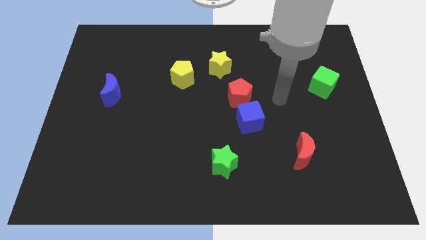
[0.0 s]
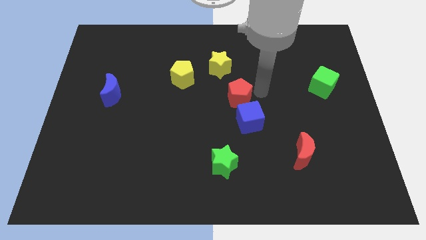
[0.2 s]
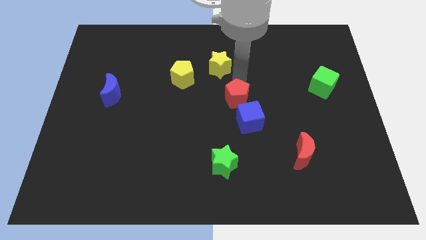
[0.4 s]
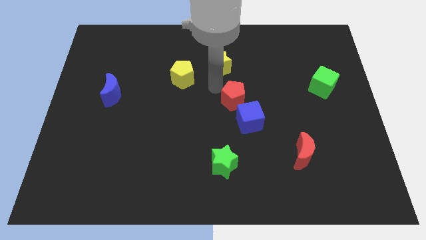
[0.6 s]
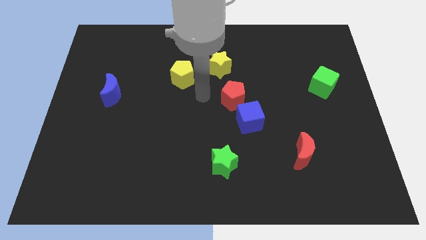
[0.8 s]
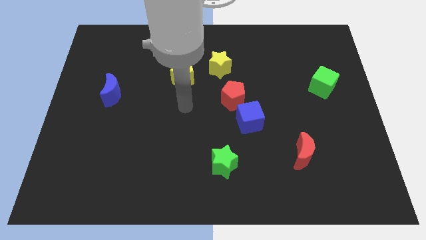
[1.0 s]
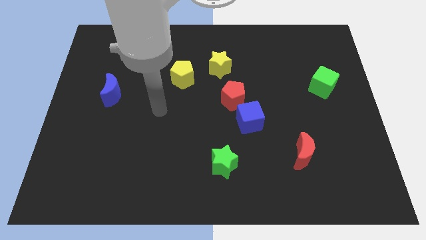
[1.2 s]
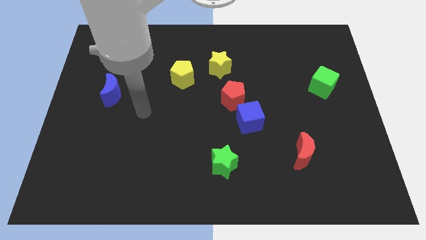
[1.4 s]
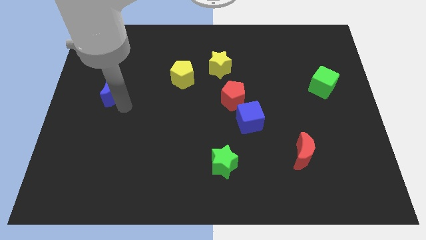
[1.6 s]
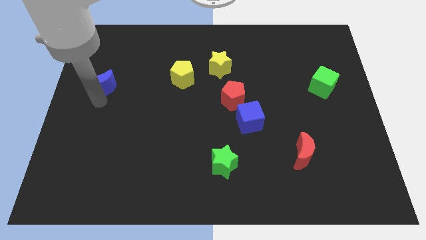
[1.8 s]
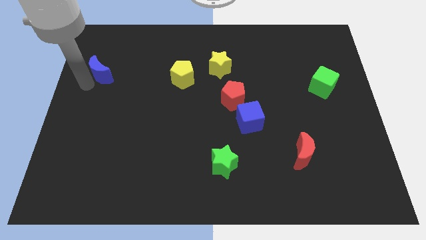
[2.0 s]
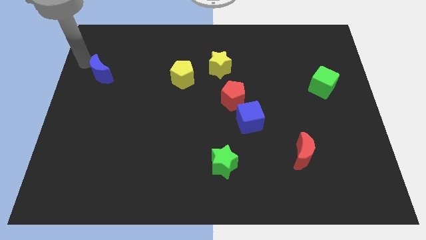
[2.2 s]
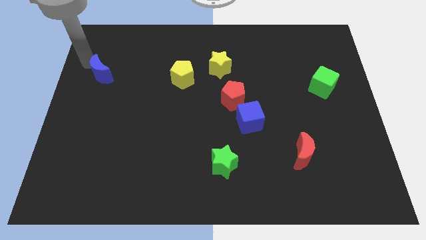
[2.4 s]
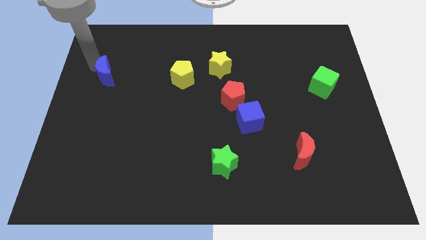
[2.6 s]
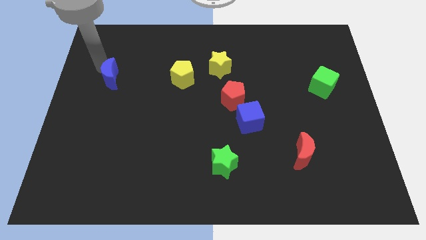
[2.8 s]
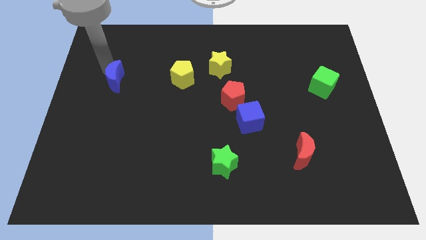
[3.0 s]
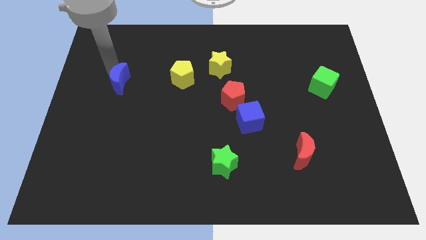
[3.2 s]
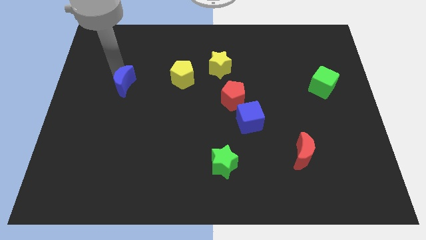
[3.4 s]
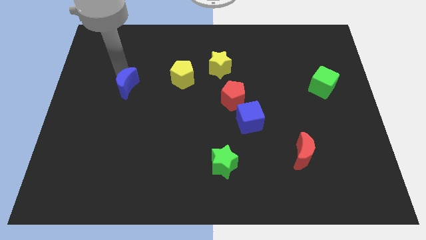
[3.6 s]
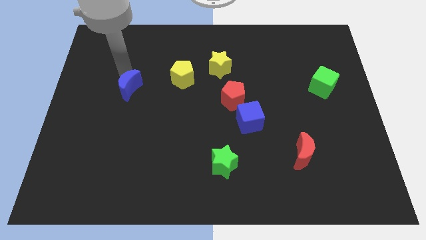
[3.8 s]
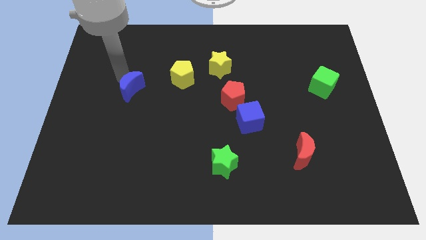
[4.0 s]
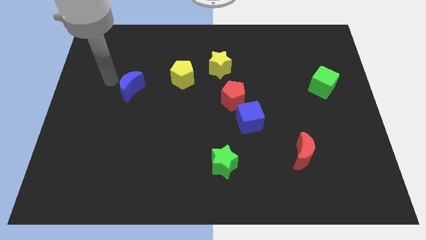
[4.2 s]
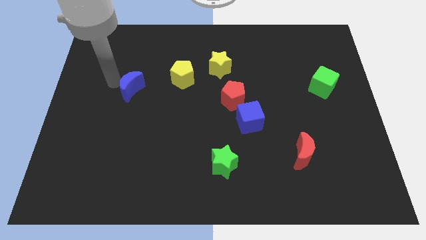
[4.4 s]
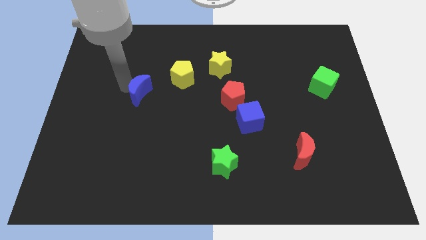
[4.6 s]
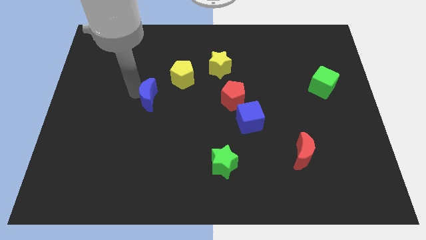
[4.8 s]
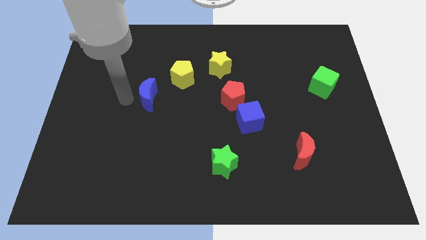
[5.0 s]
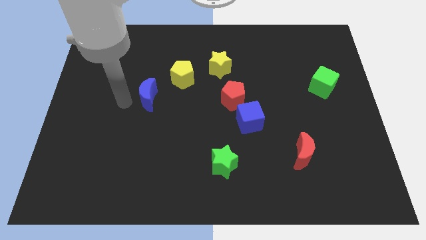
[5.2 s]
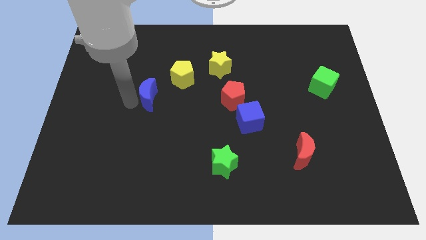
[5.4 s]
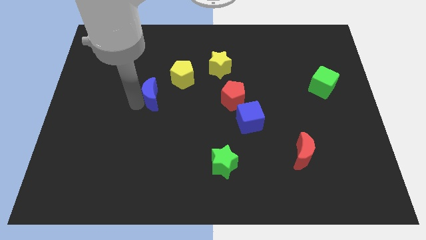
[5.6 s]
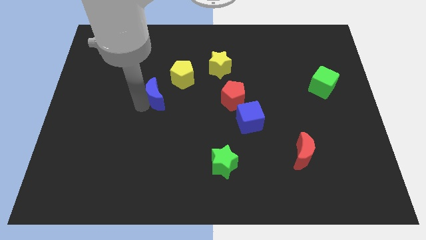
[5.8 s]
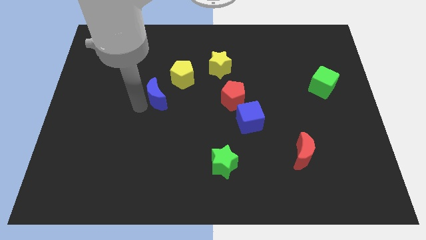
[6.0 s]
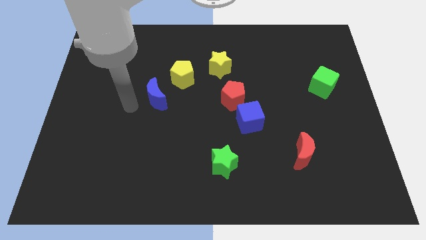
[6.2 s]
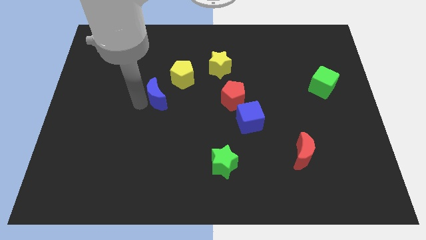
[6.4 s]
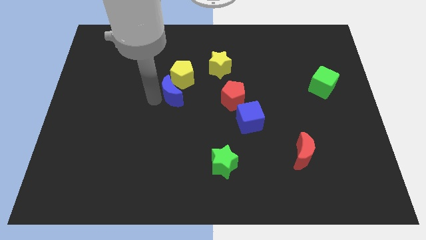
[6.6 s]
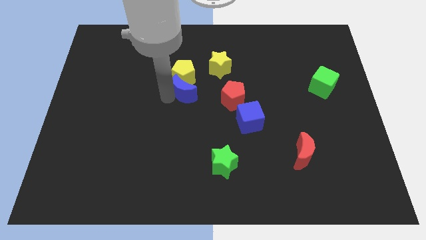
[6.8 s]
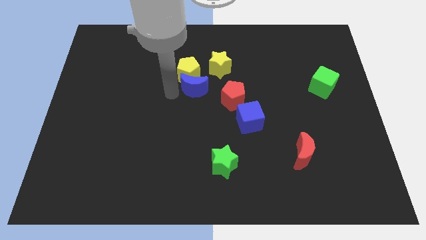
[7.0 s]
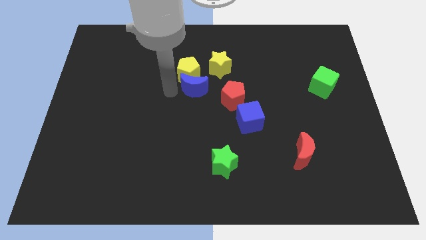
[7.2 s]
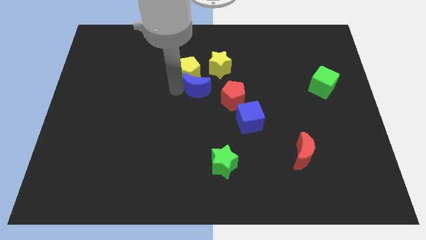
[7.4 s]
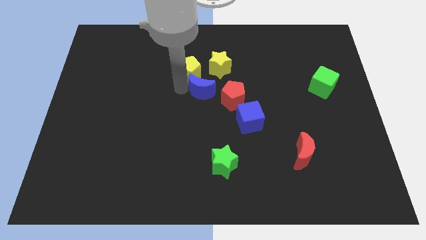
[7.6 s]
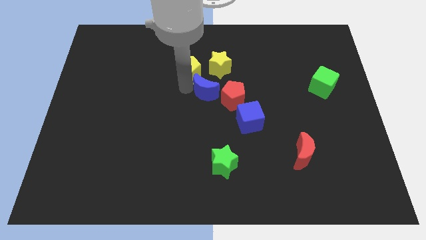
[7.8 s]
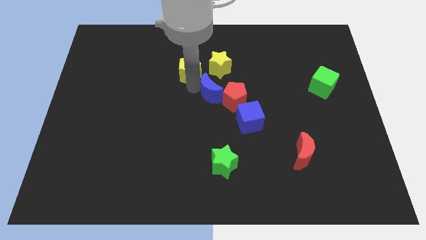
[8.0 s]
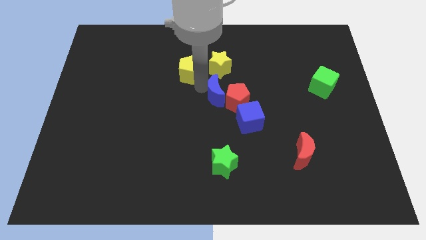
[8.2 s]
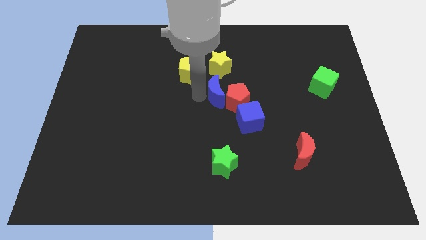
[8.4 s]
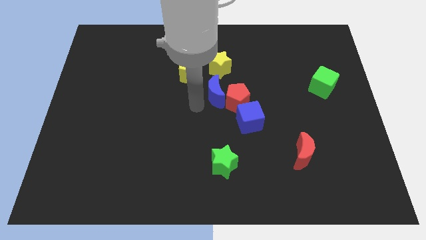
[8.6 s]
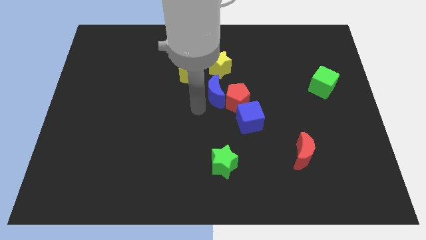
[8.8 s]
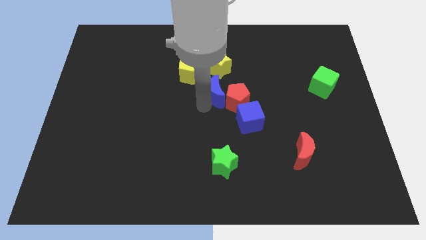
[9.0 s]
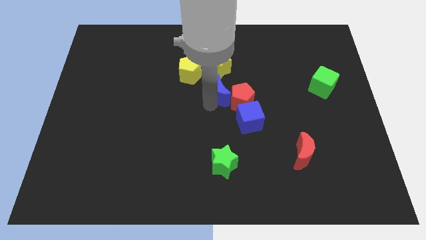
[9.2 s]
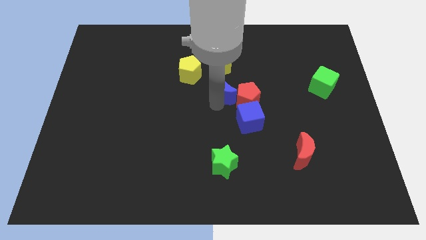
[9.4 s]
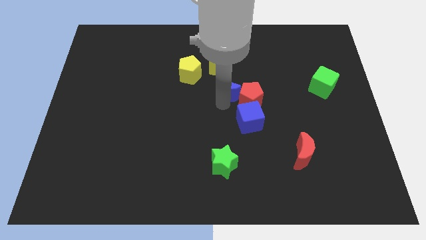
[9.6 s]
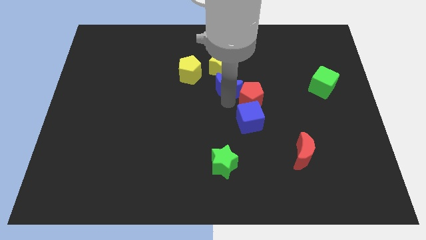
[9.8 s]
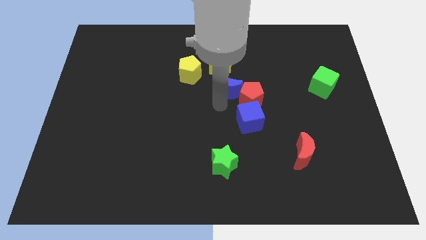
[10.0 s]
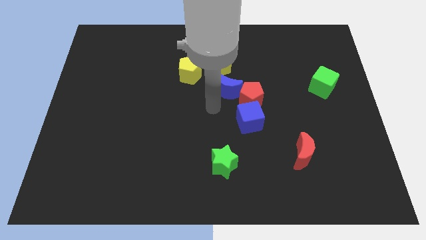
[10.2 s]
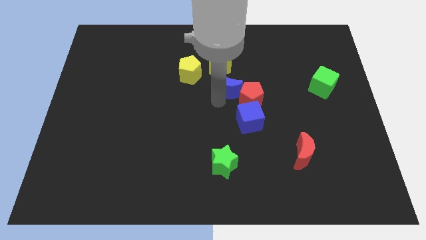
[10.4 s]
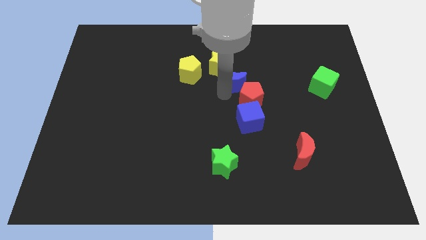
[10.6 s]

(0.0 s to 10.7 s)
slide the blue moon to the top of the red pentagon

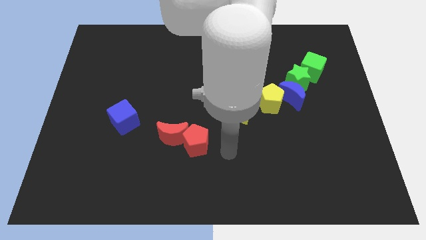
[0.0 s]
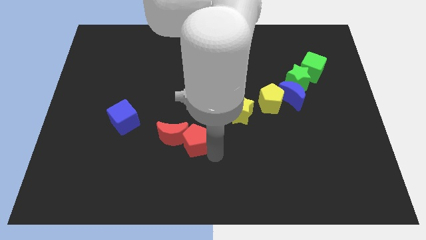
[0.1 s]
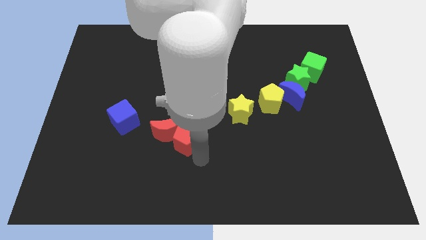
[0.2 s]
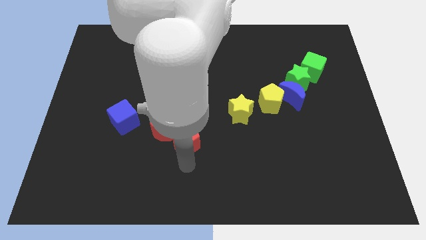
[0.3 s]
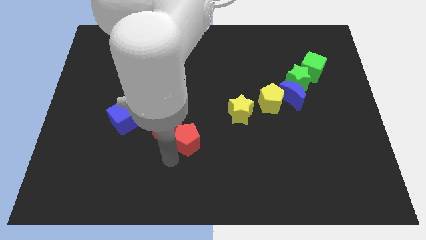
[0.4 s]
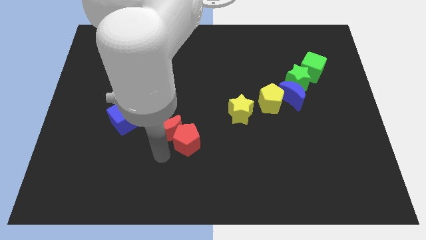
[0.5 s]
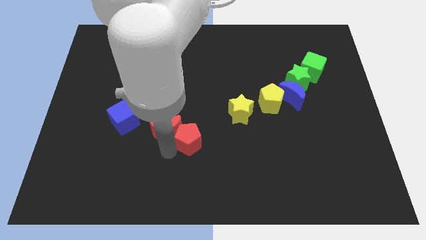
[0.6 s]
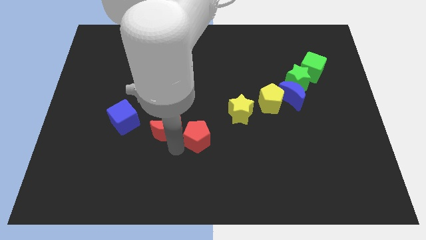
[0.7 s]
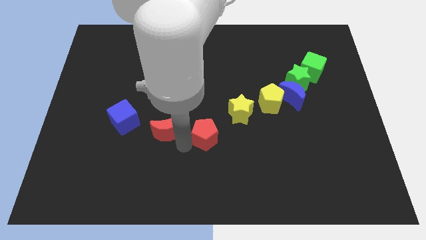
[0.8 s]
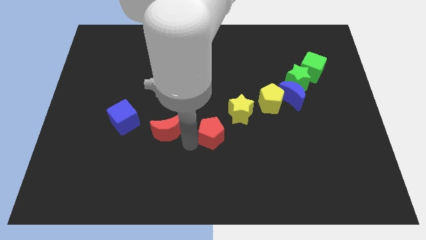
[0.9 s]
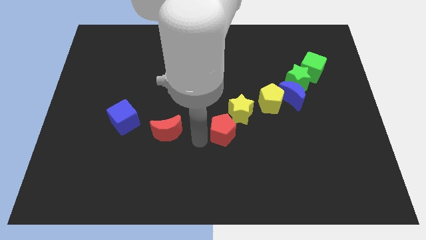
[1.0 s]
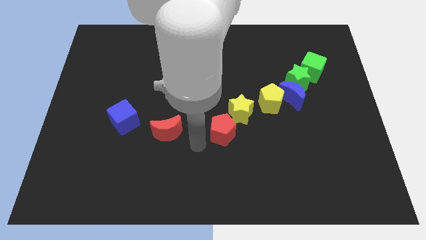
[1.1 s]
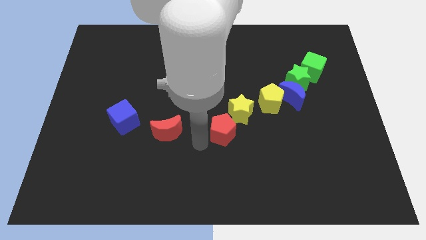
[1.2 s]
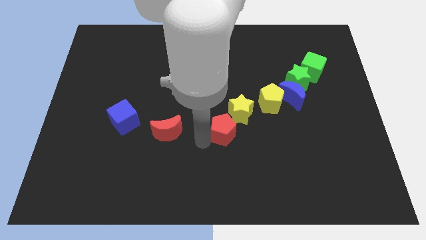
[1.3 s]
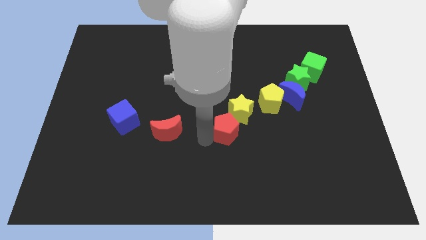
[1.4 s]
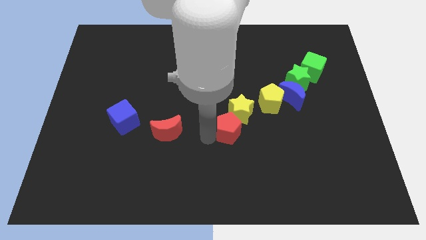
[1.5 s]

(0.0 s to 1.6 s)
push the red pentagon diagonally down and to the left of the yellow pentagon
